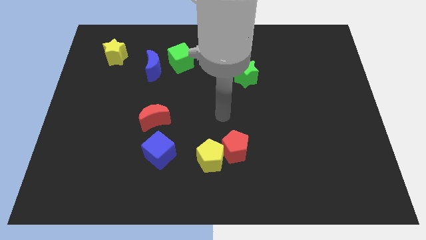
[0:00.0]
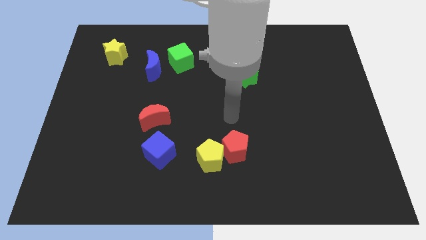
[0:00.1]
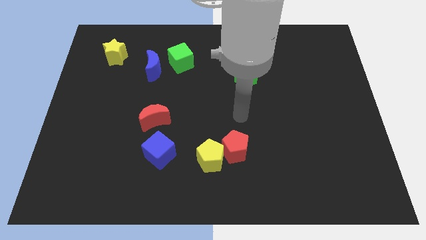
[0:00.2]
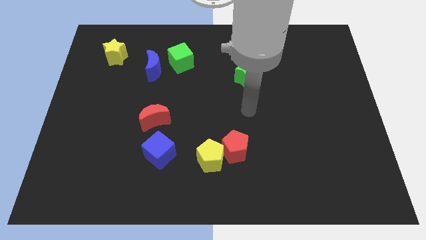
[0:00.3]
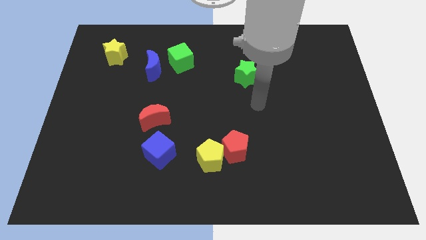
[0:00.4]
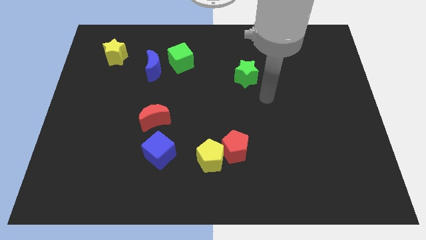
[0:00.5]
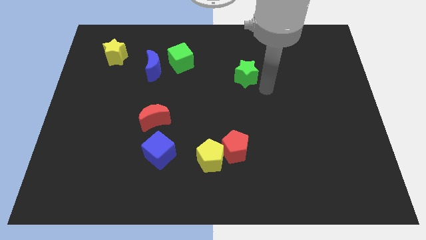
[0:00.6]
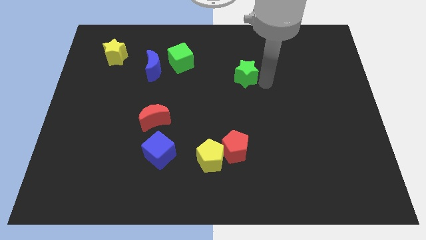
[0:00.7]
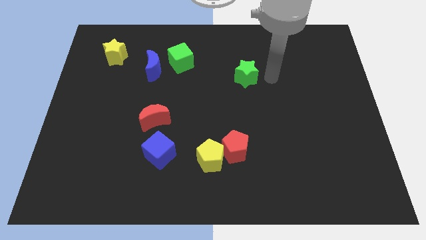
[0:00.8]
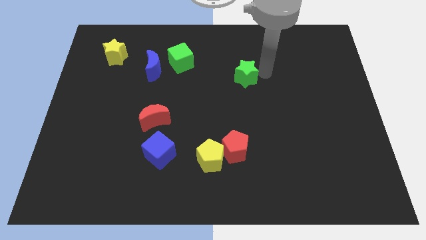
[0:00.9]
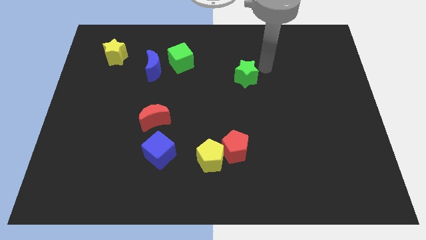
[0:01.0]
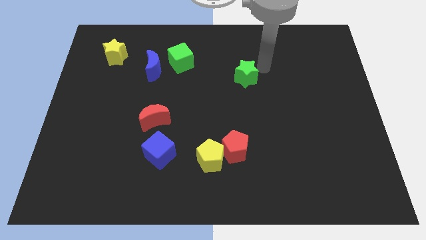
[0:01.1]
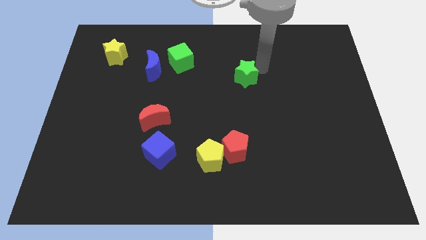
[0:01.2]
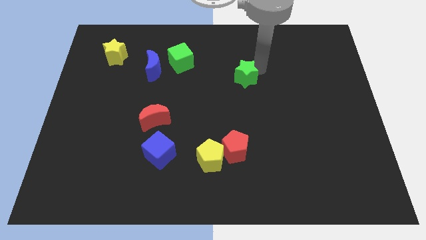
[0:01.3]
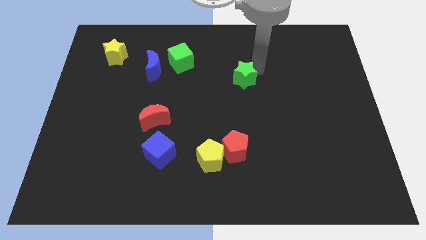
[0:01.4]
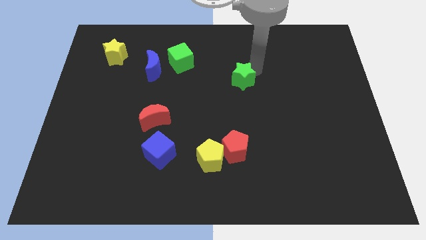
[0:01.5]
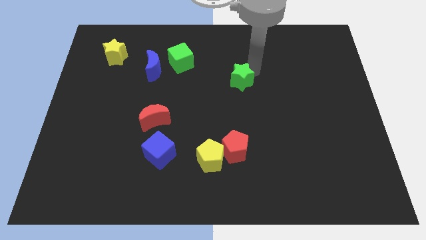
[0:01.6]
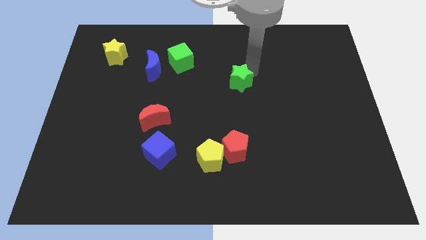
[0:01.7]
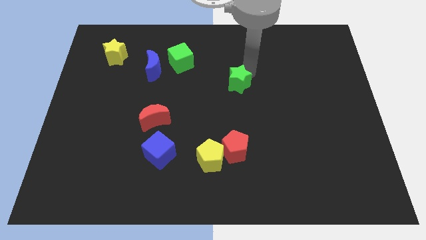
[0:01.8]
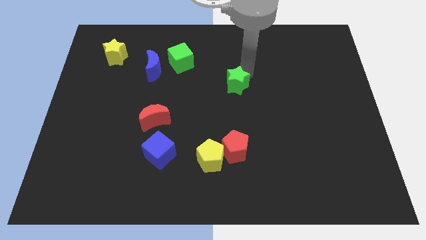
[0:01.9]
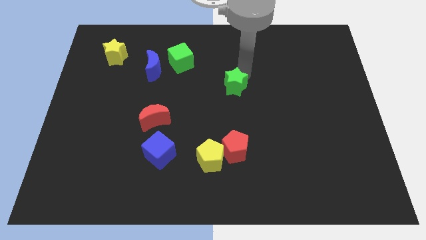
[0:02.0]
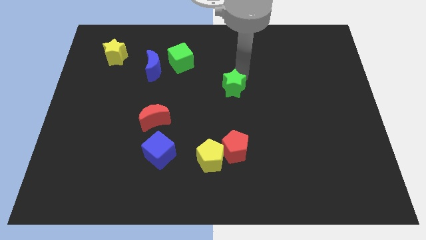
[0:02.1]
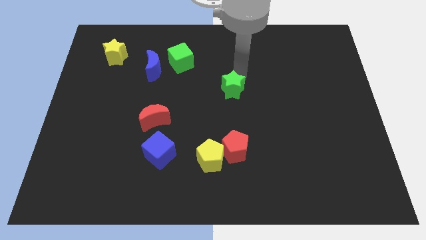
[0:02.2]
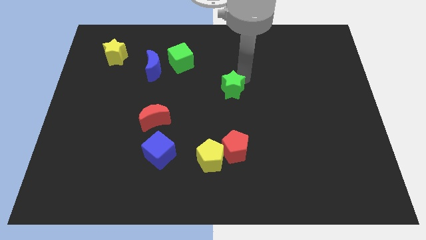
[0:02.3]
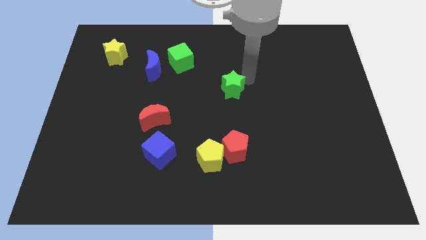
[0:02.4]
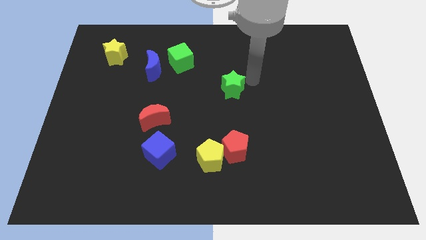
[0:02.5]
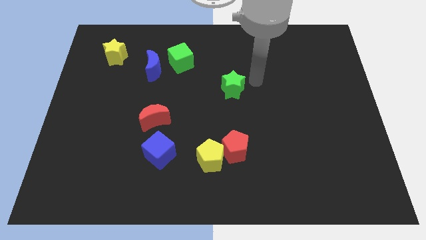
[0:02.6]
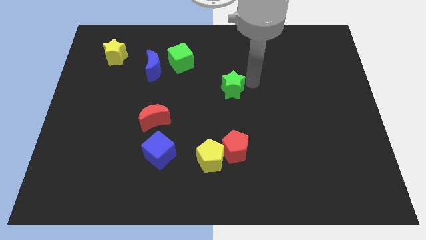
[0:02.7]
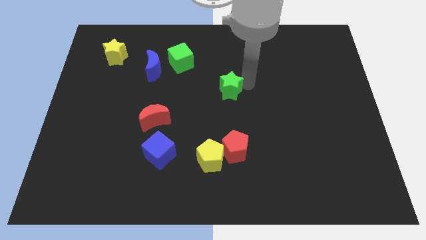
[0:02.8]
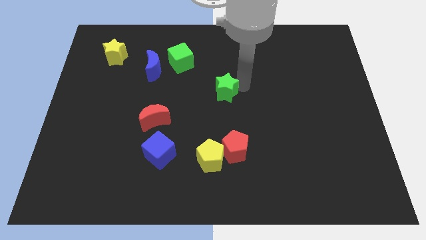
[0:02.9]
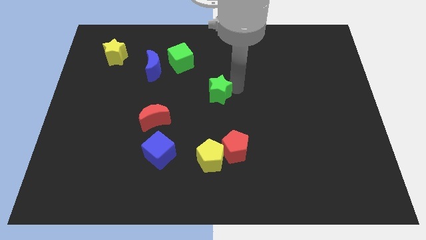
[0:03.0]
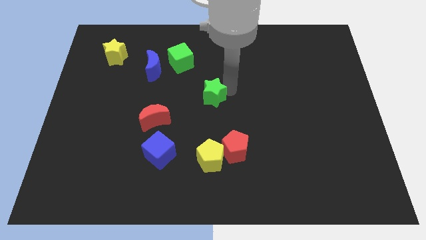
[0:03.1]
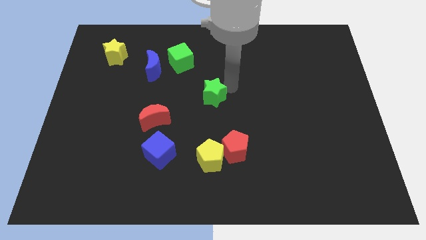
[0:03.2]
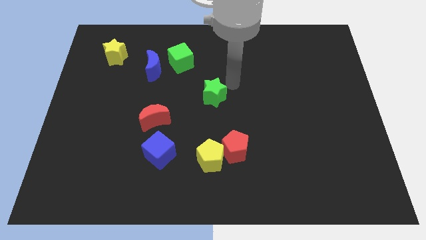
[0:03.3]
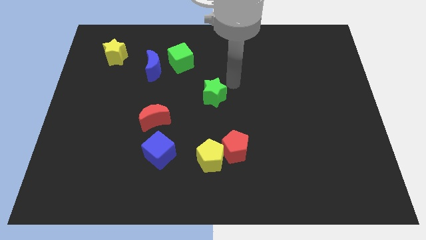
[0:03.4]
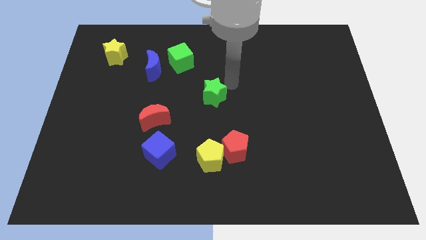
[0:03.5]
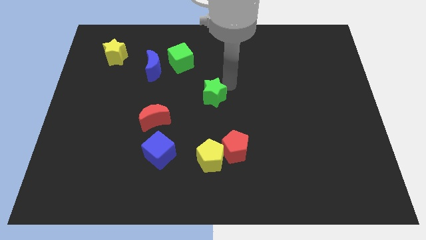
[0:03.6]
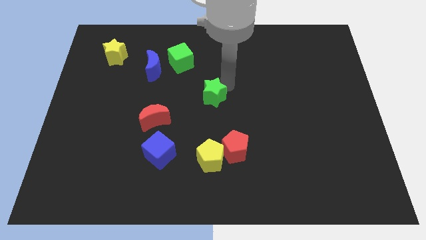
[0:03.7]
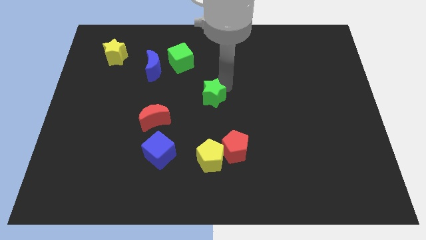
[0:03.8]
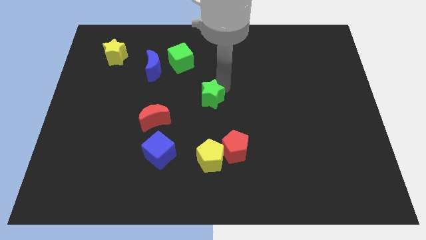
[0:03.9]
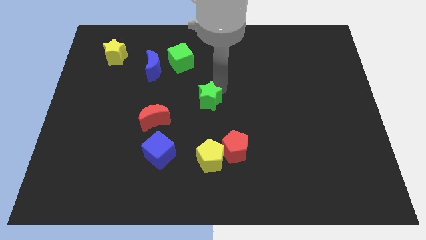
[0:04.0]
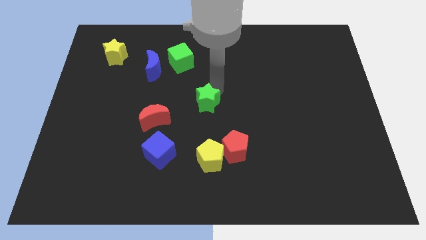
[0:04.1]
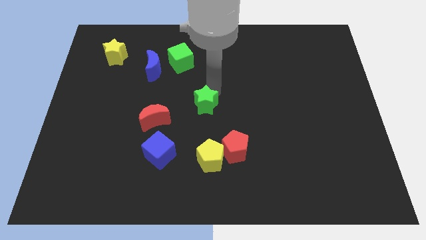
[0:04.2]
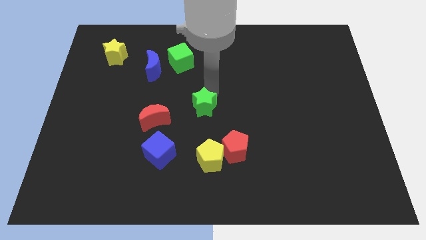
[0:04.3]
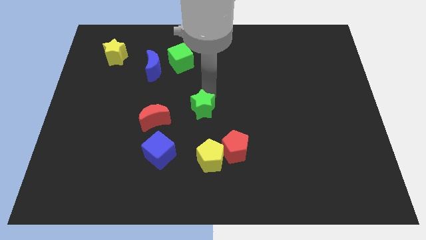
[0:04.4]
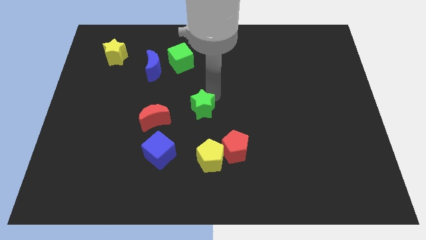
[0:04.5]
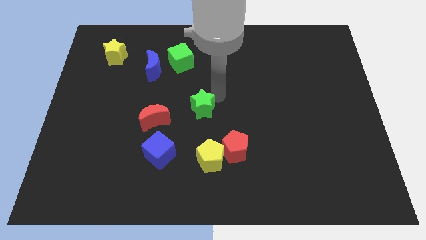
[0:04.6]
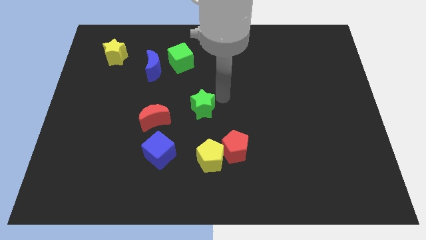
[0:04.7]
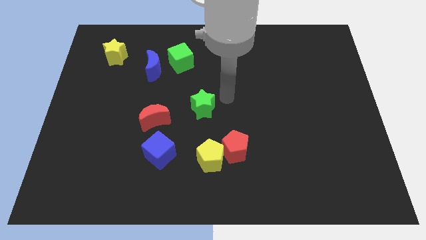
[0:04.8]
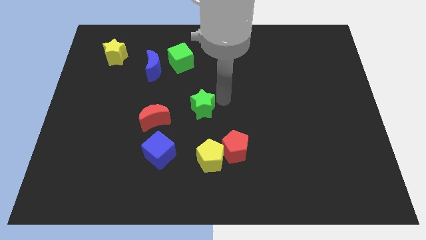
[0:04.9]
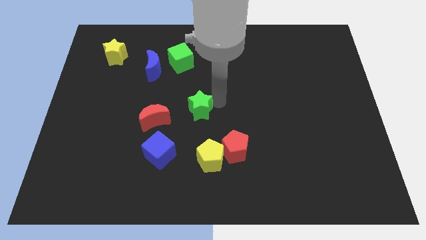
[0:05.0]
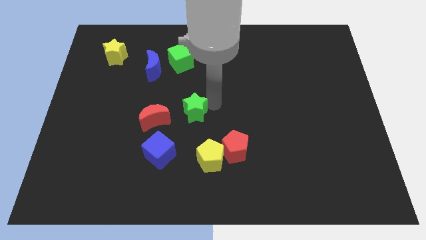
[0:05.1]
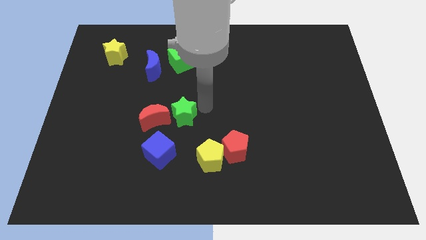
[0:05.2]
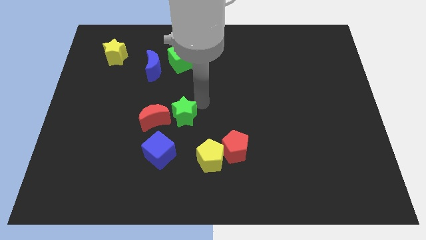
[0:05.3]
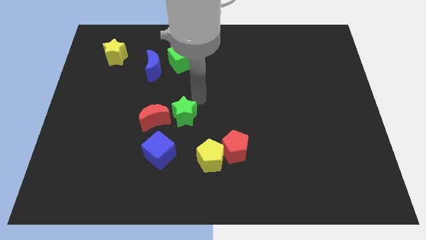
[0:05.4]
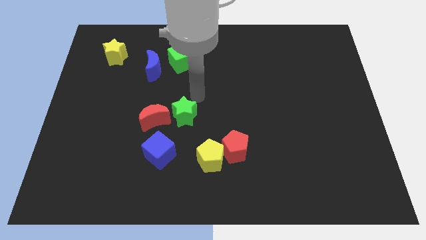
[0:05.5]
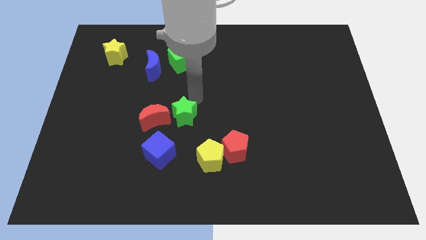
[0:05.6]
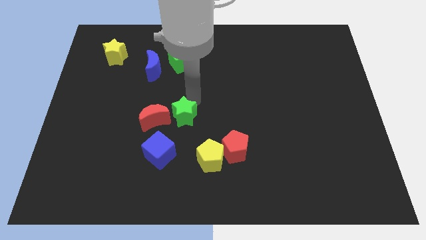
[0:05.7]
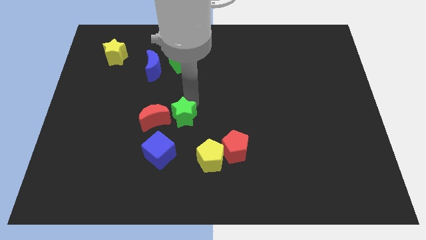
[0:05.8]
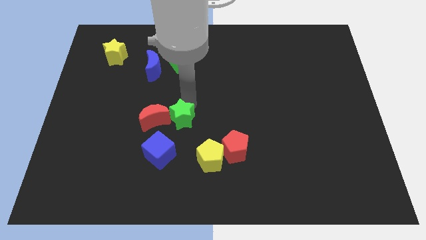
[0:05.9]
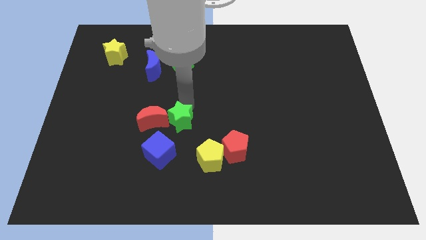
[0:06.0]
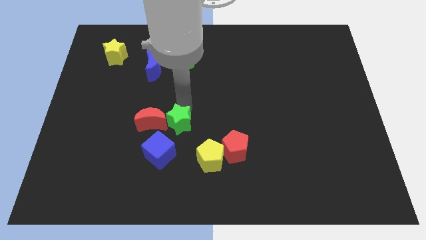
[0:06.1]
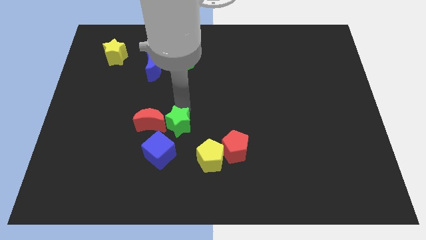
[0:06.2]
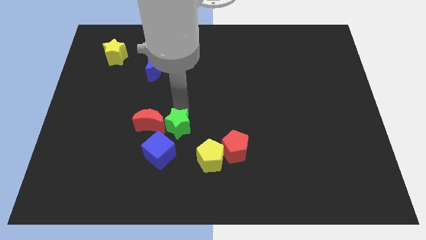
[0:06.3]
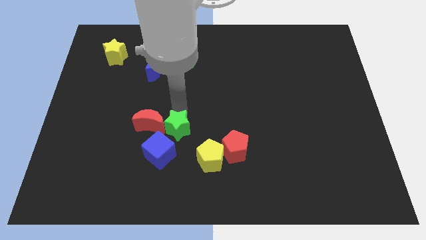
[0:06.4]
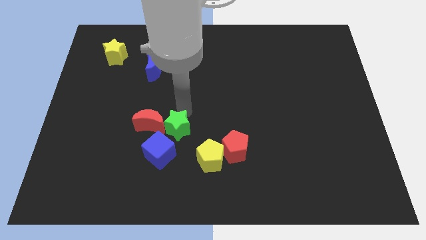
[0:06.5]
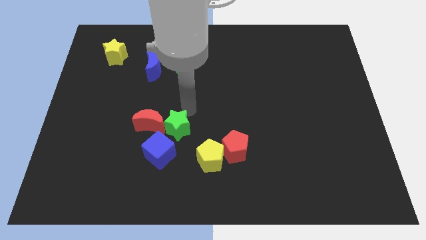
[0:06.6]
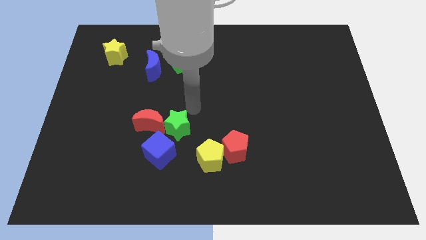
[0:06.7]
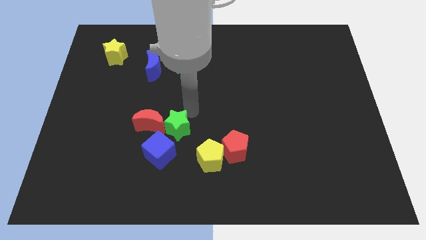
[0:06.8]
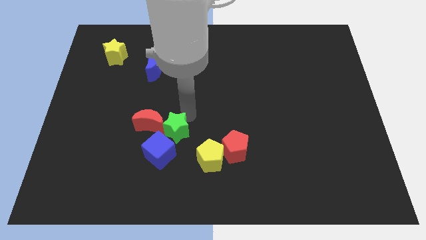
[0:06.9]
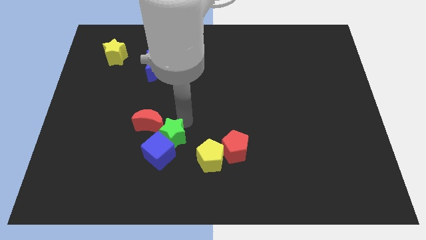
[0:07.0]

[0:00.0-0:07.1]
slide the green star towards the blue cube
